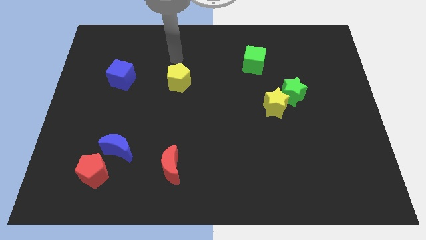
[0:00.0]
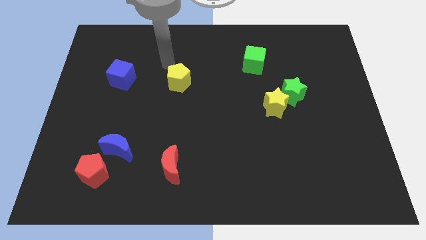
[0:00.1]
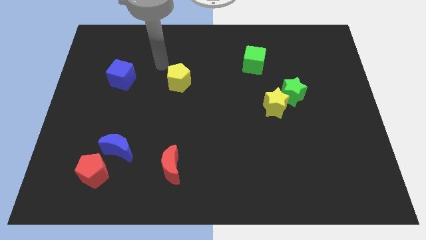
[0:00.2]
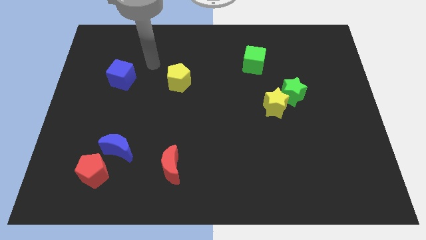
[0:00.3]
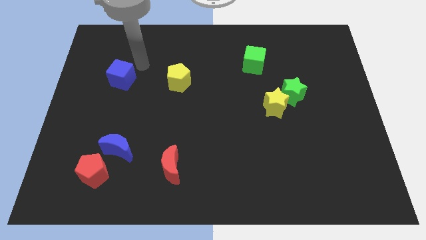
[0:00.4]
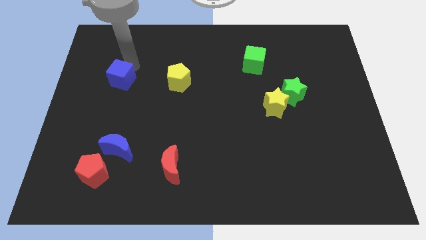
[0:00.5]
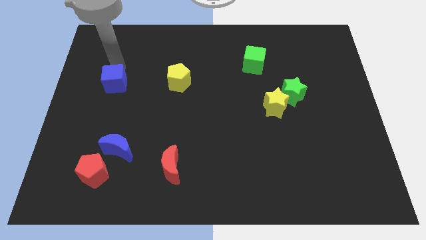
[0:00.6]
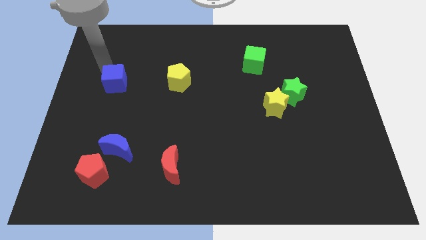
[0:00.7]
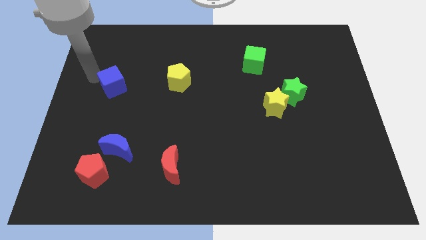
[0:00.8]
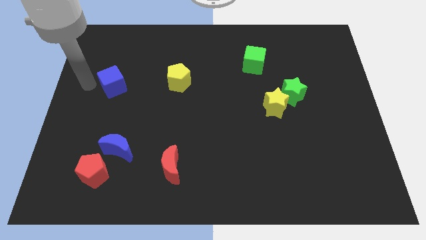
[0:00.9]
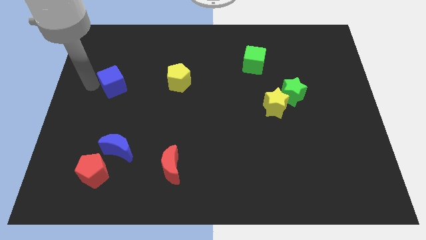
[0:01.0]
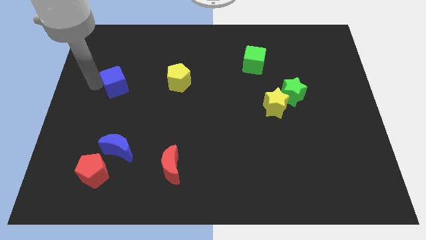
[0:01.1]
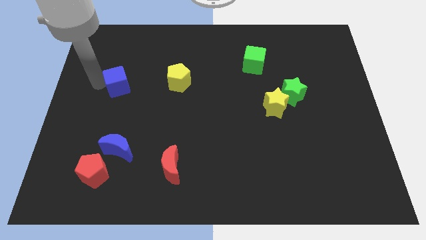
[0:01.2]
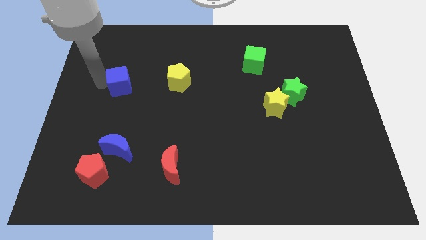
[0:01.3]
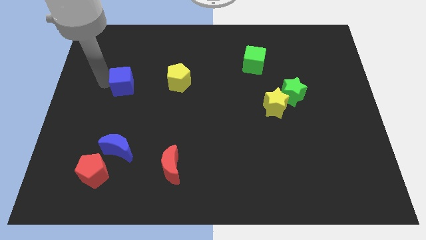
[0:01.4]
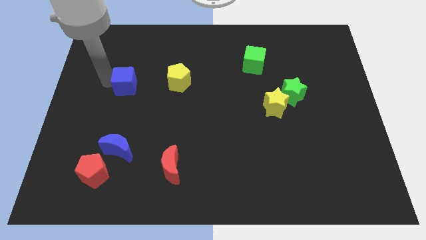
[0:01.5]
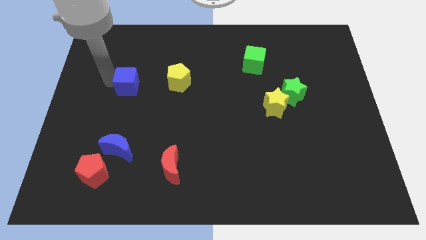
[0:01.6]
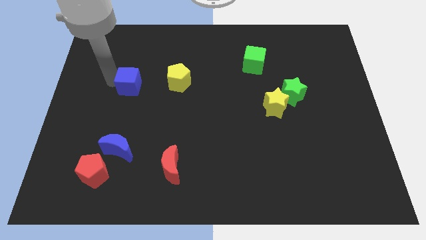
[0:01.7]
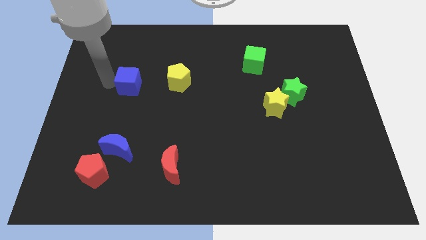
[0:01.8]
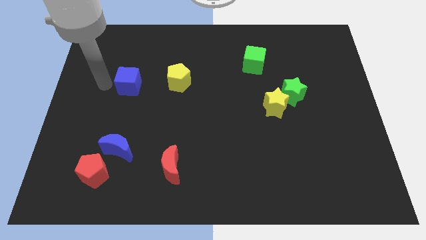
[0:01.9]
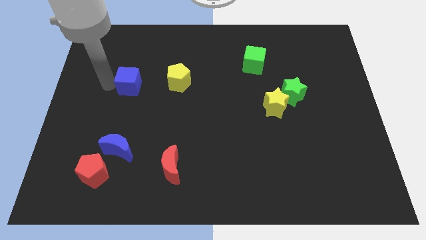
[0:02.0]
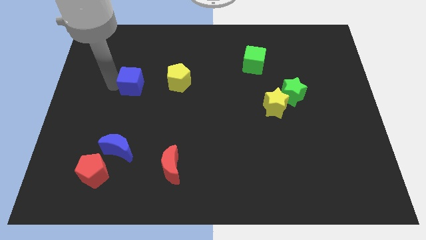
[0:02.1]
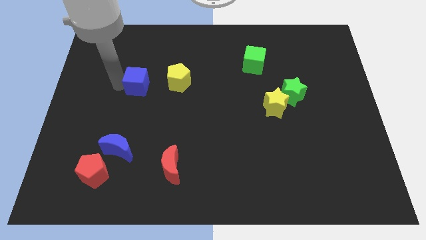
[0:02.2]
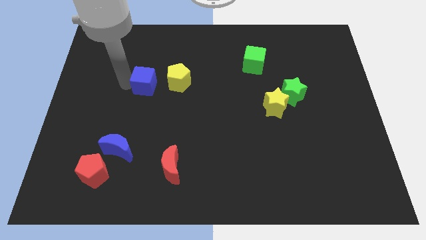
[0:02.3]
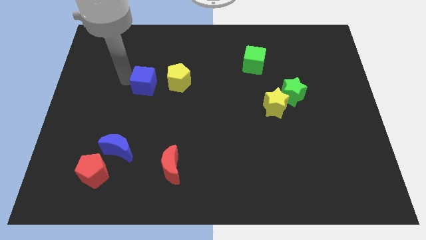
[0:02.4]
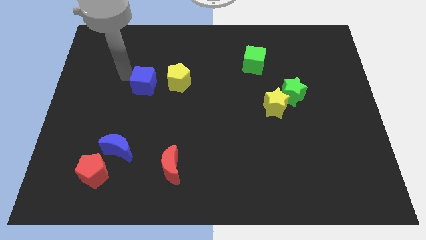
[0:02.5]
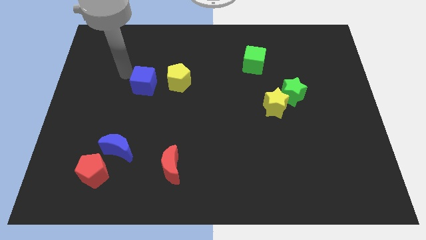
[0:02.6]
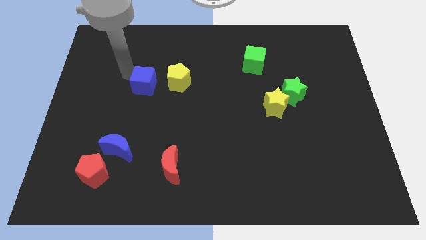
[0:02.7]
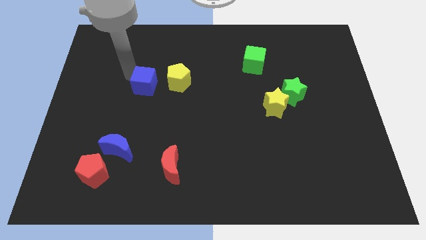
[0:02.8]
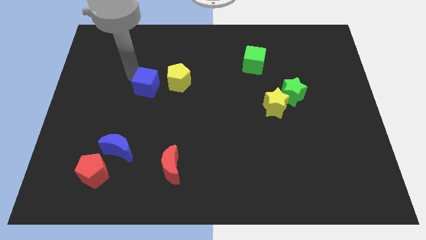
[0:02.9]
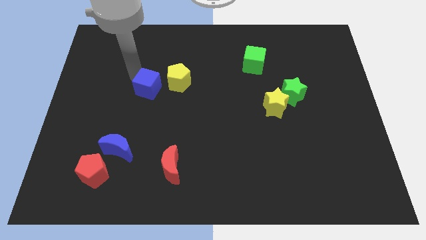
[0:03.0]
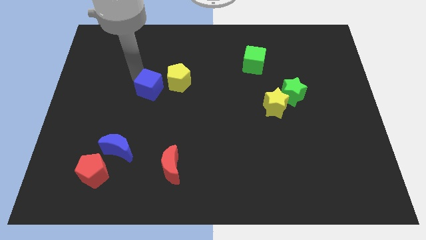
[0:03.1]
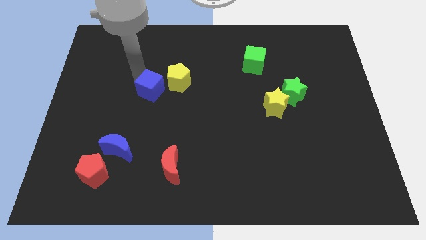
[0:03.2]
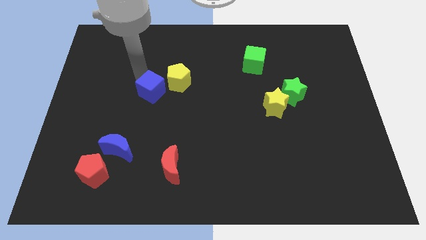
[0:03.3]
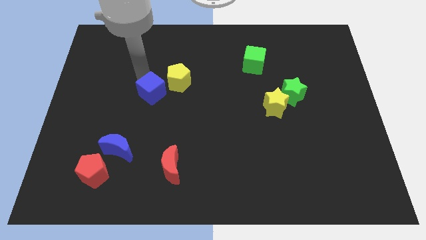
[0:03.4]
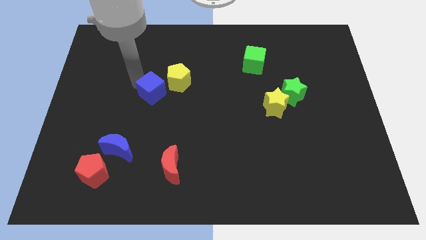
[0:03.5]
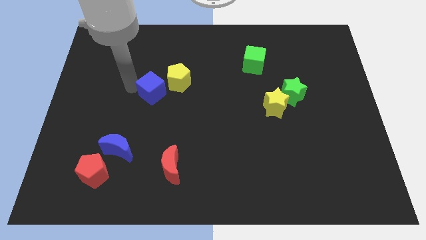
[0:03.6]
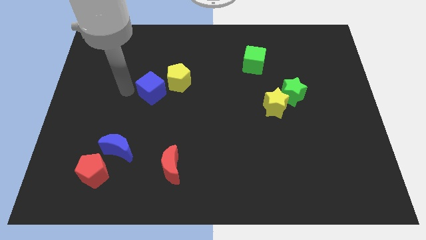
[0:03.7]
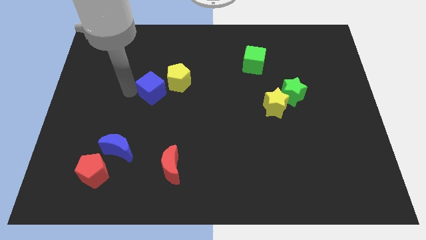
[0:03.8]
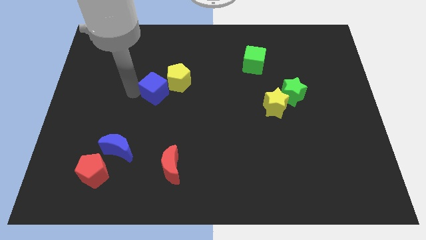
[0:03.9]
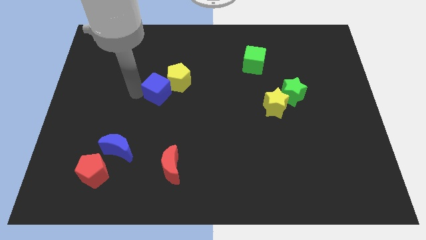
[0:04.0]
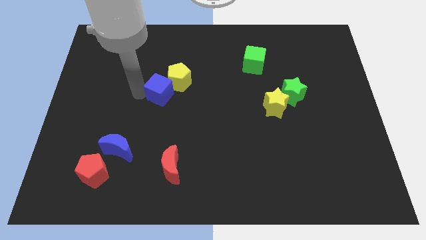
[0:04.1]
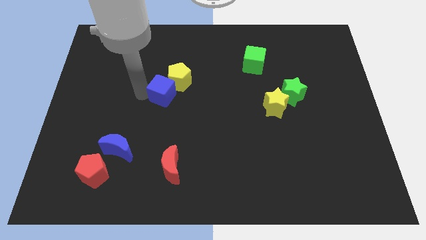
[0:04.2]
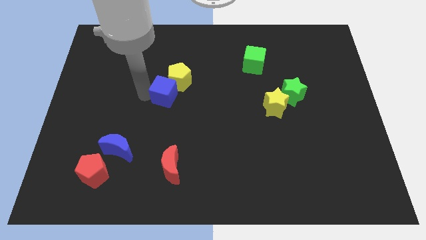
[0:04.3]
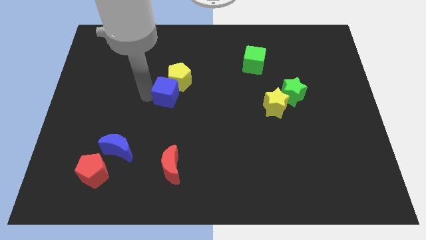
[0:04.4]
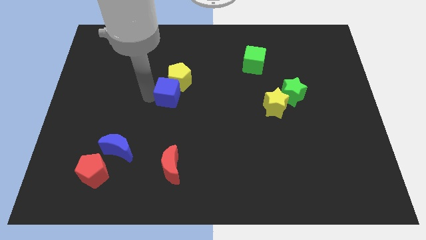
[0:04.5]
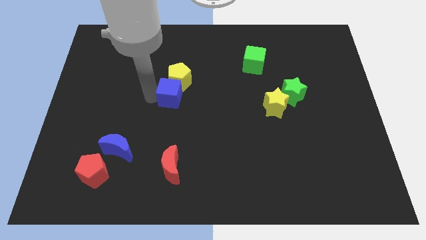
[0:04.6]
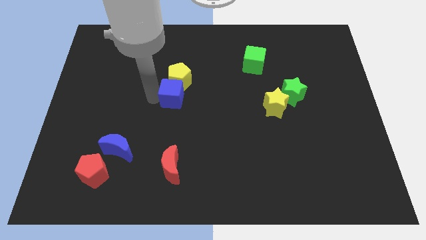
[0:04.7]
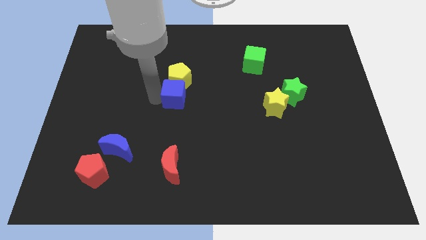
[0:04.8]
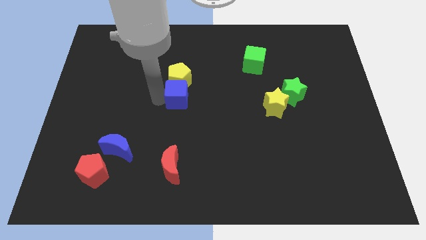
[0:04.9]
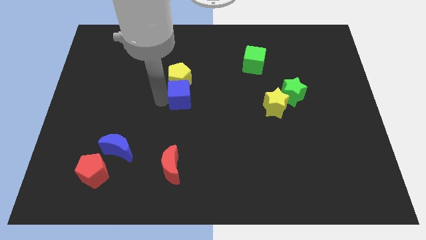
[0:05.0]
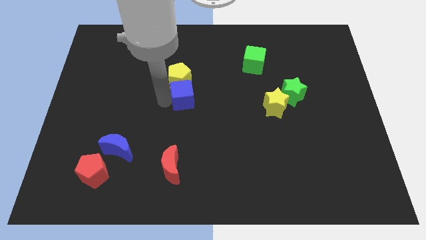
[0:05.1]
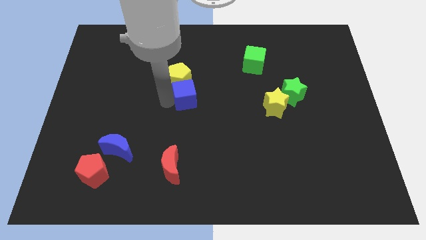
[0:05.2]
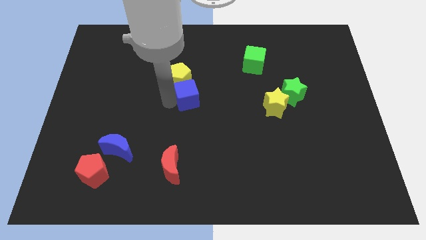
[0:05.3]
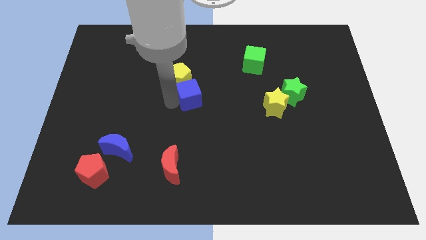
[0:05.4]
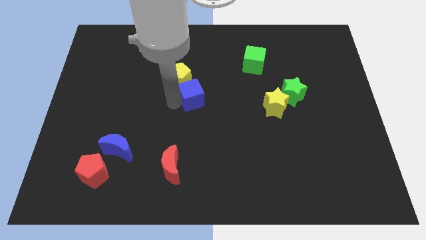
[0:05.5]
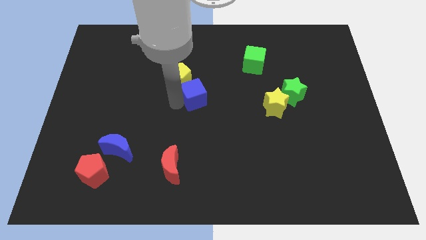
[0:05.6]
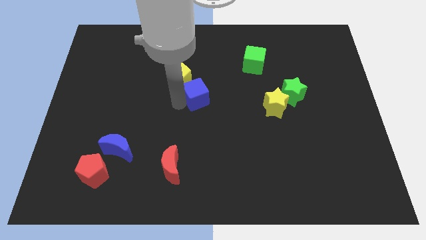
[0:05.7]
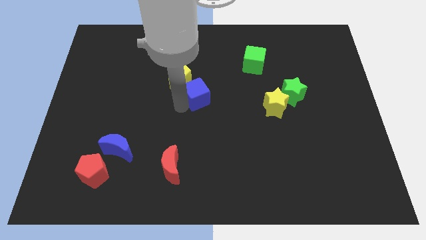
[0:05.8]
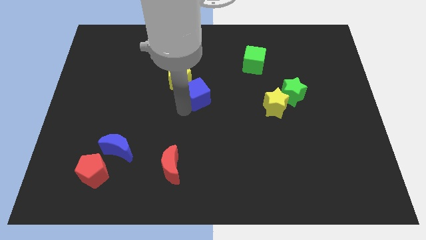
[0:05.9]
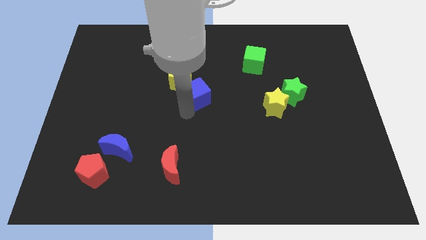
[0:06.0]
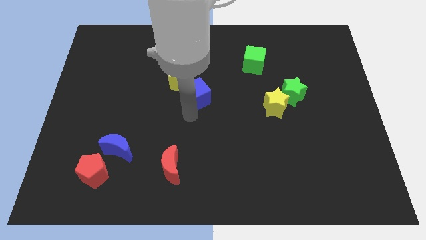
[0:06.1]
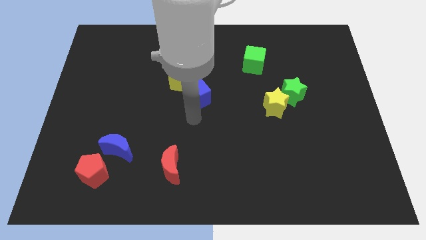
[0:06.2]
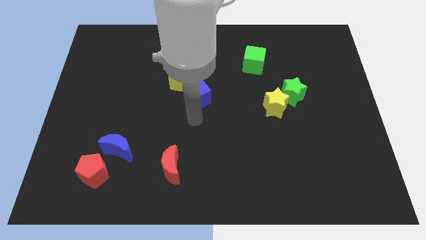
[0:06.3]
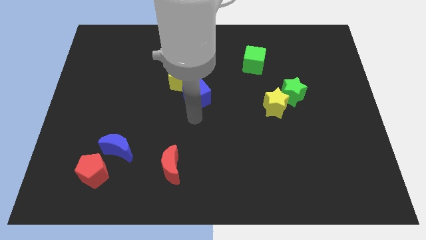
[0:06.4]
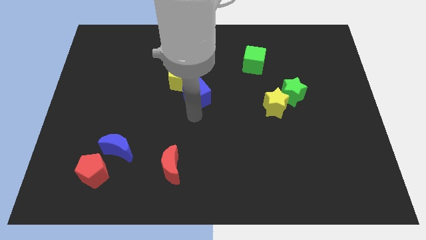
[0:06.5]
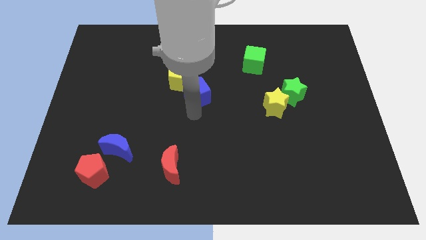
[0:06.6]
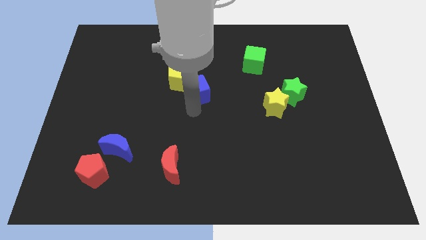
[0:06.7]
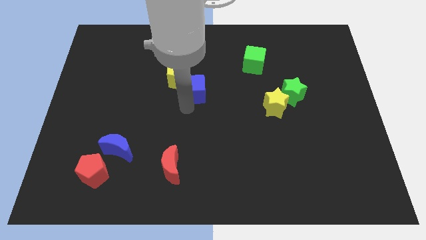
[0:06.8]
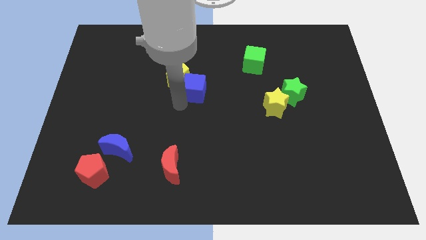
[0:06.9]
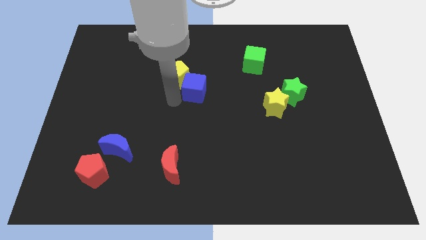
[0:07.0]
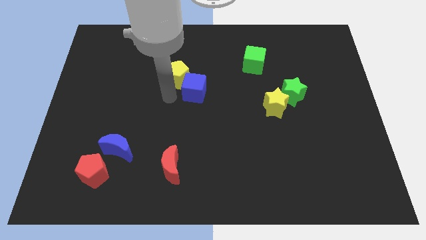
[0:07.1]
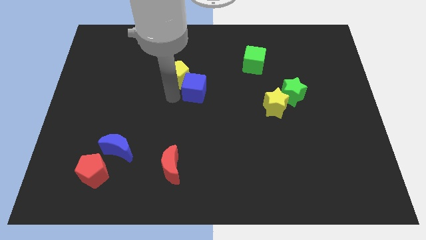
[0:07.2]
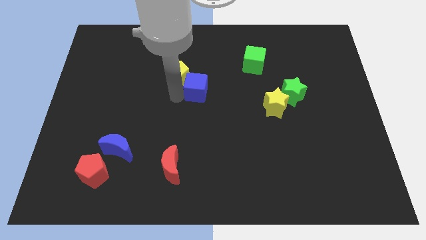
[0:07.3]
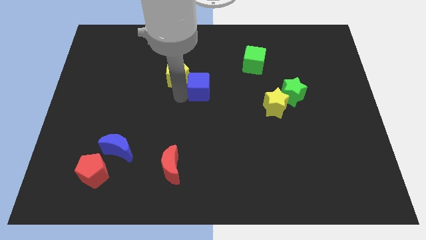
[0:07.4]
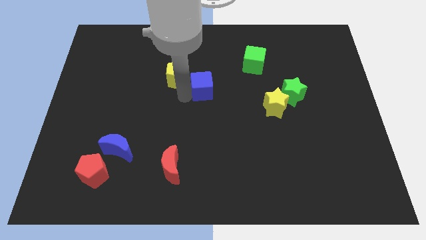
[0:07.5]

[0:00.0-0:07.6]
slide the blue cube right

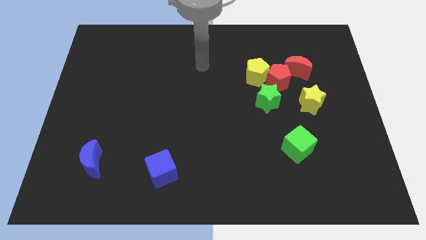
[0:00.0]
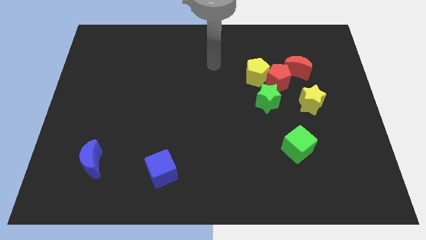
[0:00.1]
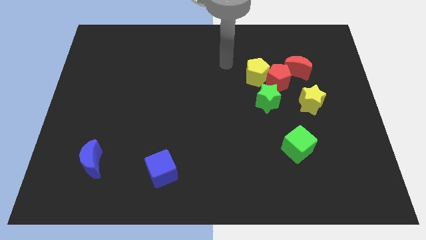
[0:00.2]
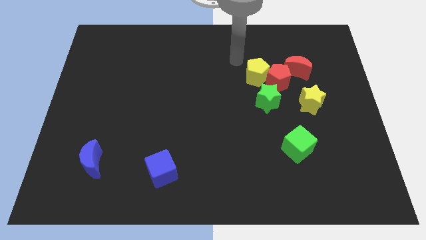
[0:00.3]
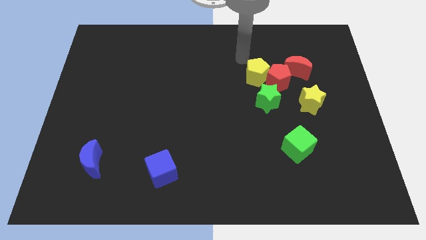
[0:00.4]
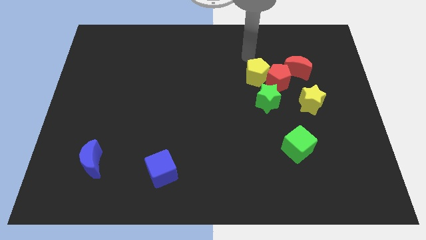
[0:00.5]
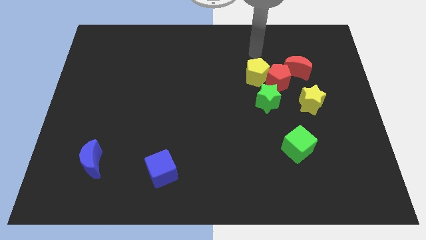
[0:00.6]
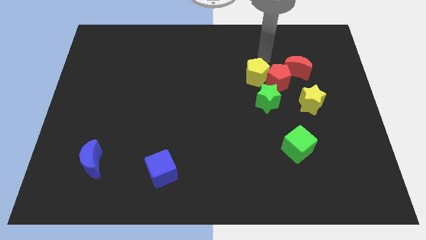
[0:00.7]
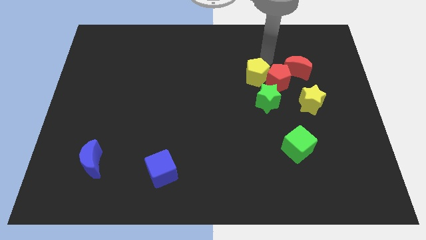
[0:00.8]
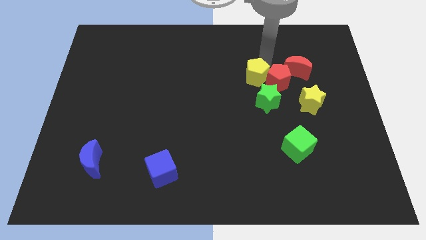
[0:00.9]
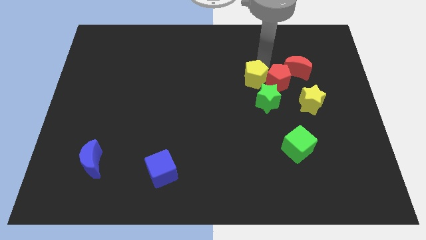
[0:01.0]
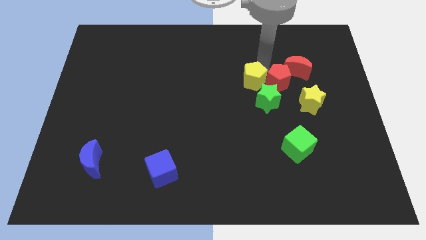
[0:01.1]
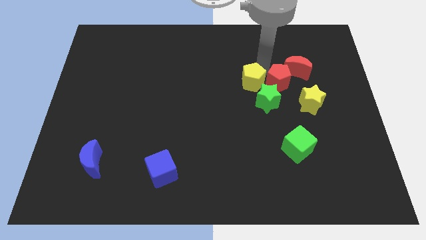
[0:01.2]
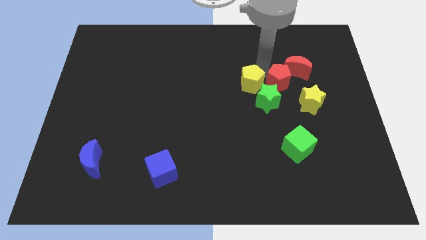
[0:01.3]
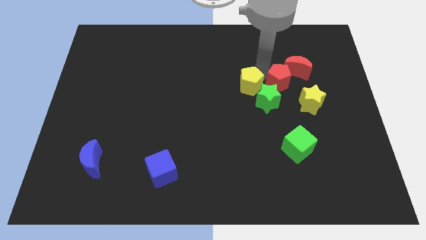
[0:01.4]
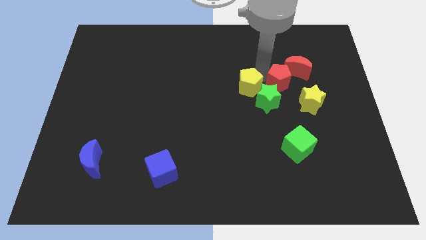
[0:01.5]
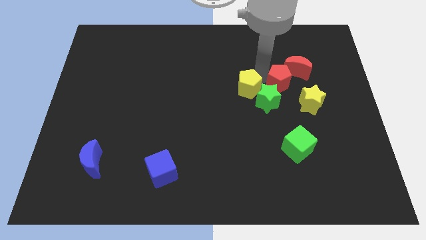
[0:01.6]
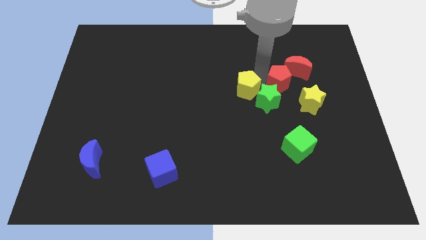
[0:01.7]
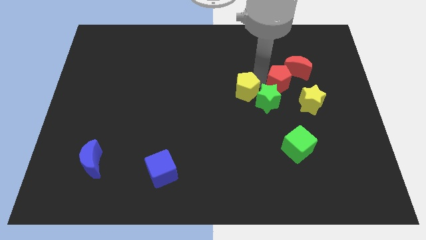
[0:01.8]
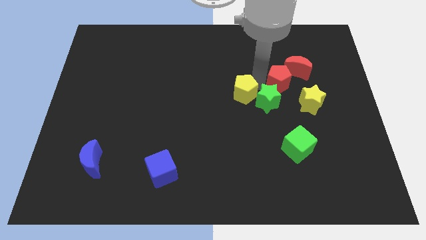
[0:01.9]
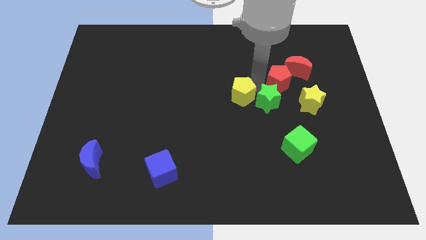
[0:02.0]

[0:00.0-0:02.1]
slightly push the yellow pentagon downwards and then to the left
